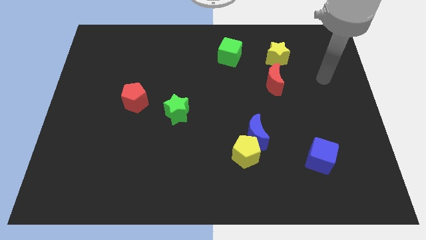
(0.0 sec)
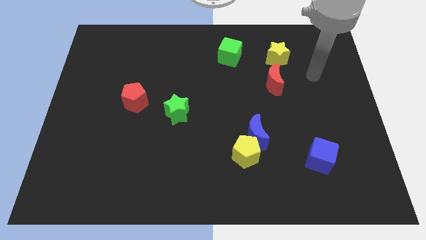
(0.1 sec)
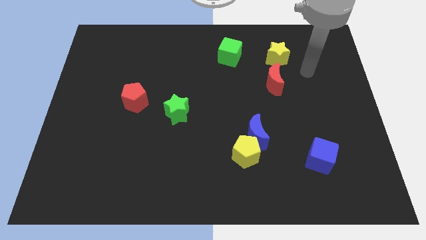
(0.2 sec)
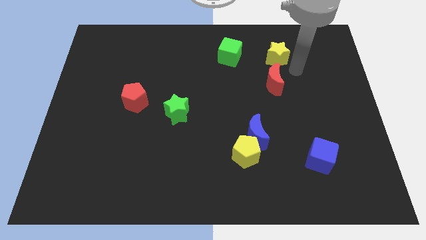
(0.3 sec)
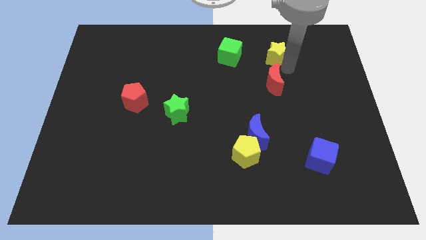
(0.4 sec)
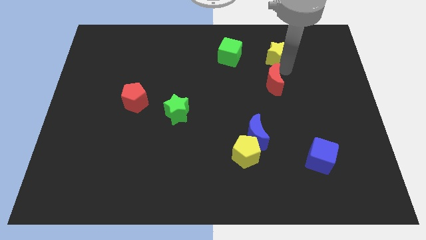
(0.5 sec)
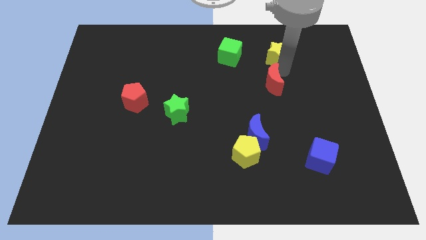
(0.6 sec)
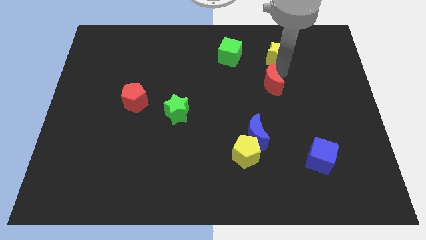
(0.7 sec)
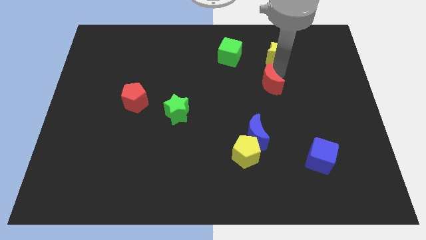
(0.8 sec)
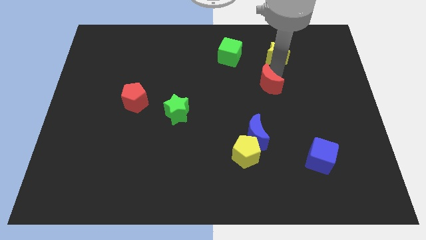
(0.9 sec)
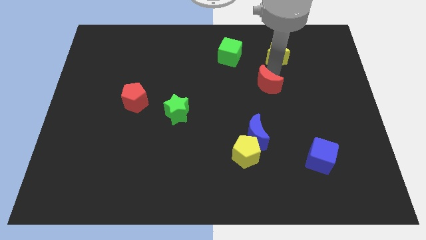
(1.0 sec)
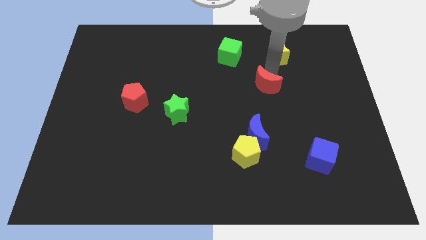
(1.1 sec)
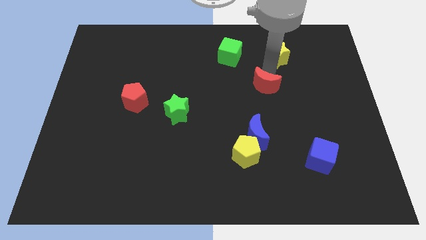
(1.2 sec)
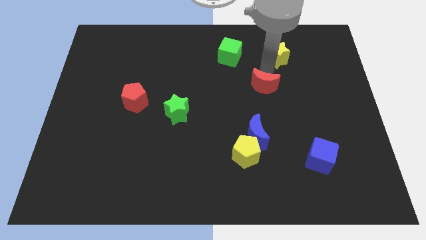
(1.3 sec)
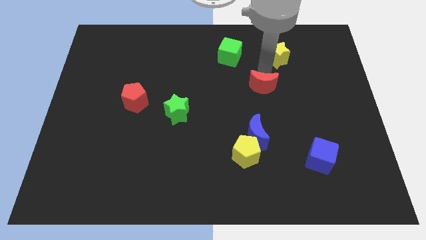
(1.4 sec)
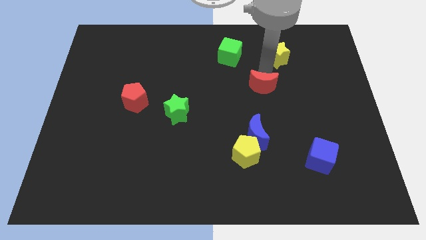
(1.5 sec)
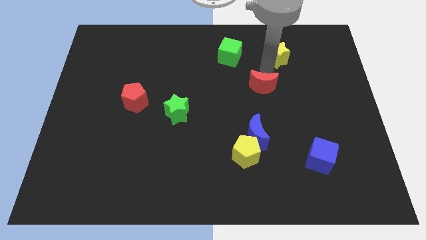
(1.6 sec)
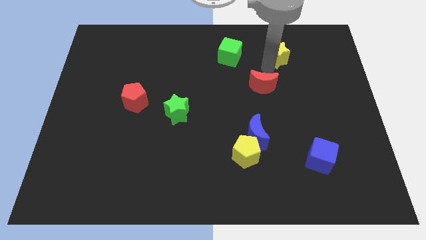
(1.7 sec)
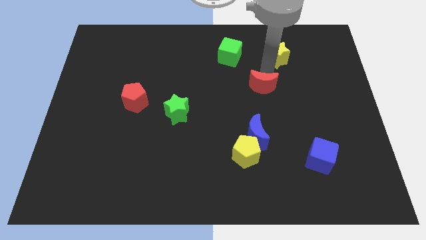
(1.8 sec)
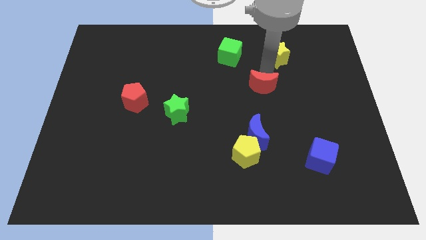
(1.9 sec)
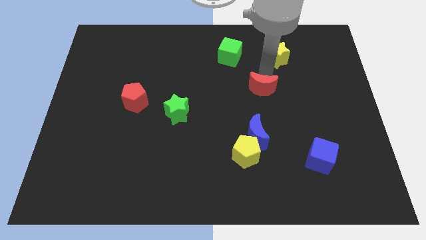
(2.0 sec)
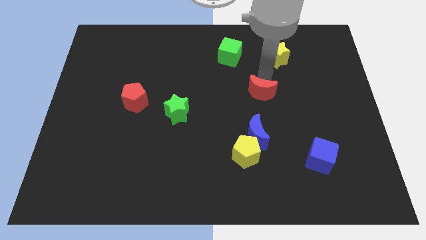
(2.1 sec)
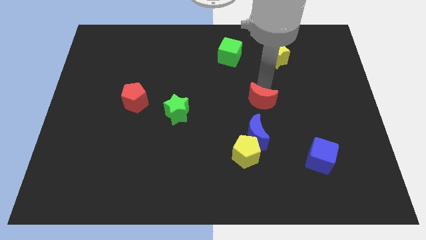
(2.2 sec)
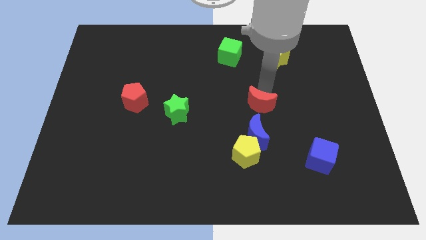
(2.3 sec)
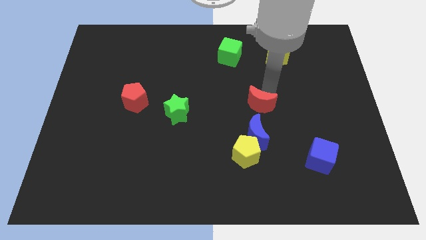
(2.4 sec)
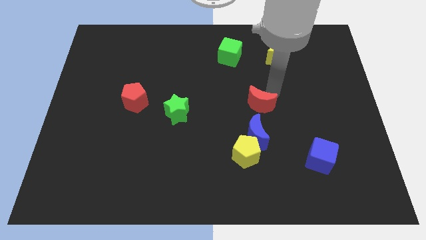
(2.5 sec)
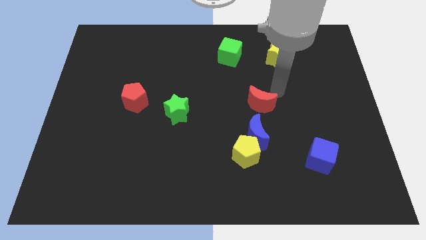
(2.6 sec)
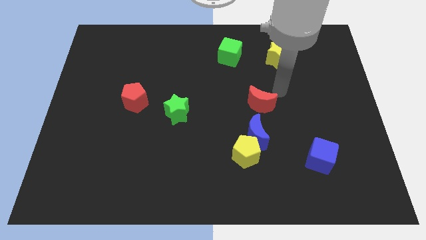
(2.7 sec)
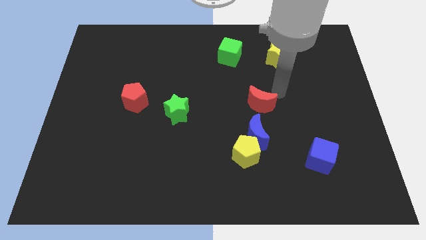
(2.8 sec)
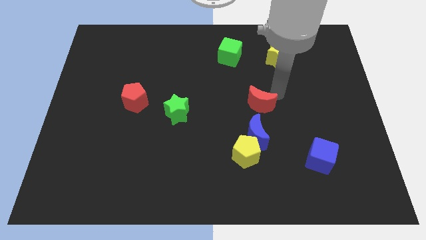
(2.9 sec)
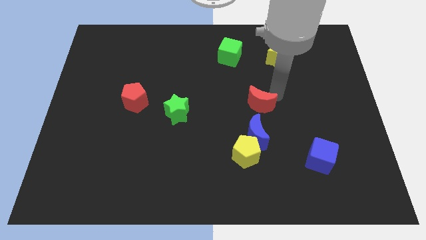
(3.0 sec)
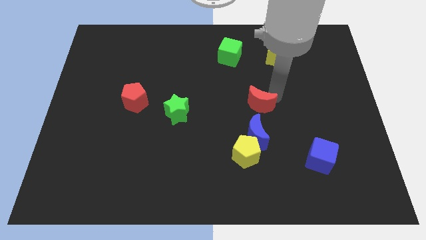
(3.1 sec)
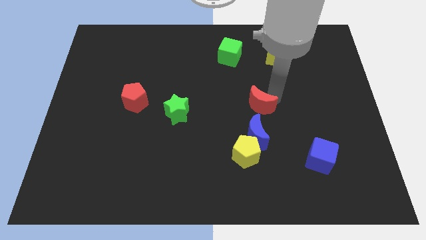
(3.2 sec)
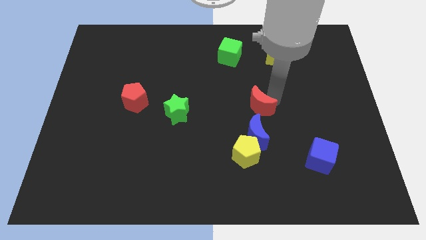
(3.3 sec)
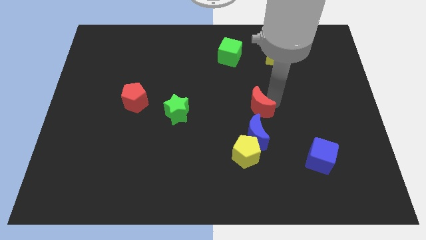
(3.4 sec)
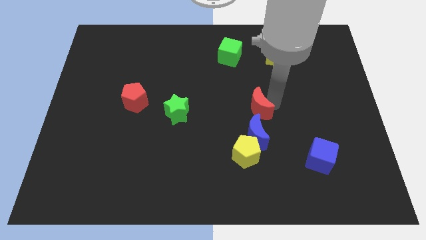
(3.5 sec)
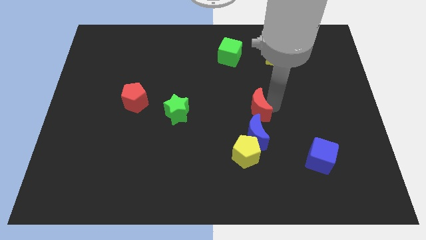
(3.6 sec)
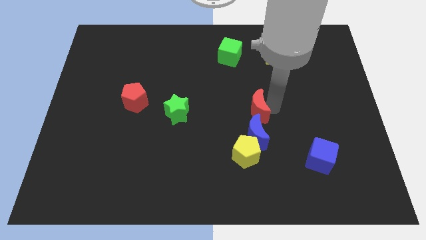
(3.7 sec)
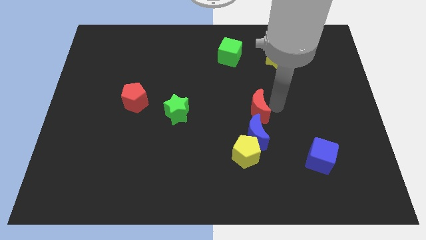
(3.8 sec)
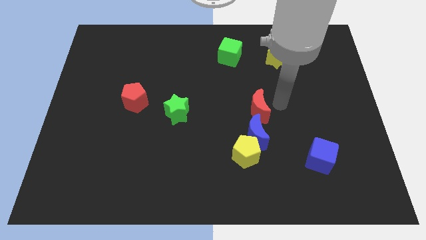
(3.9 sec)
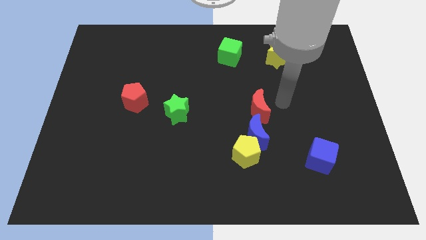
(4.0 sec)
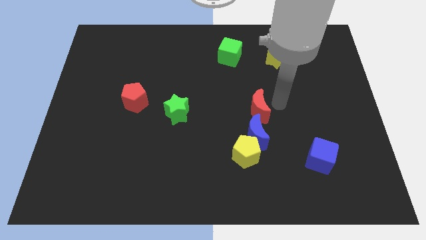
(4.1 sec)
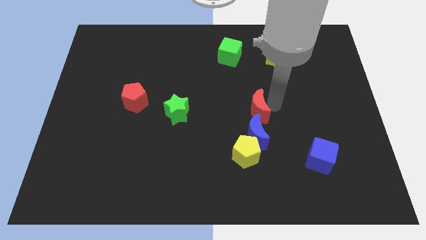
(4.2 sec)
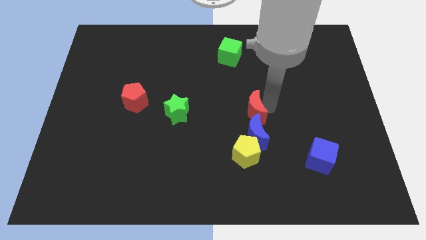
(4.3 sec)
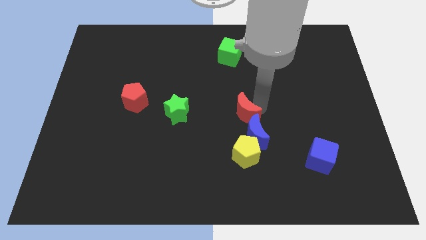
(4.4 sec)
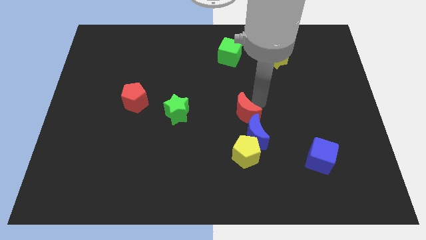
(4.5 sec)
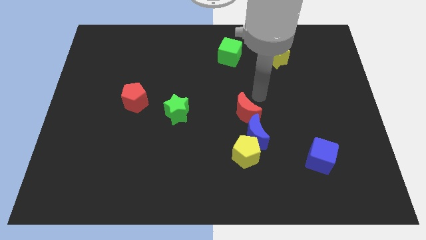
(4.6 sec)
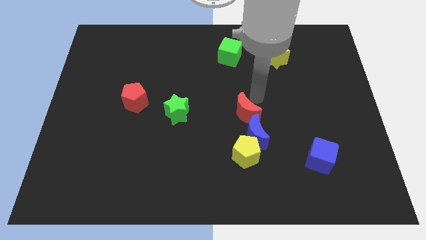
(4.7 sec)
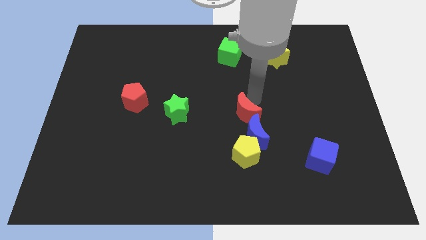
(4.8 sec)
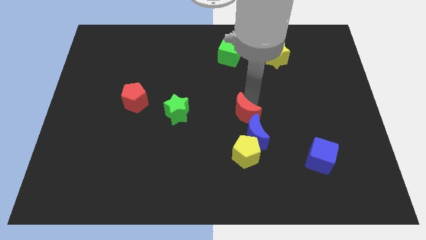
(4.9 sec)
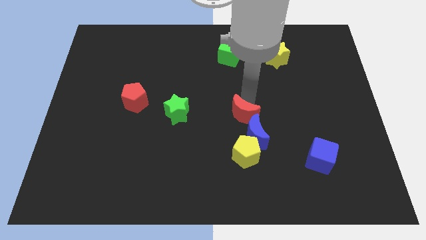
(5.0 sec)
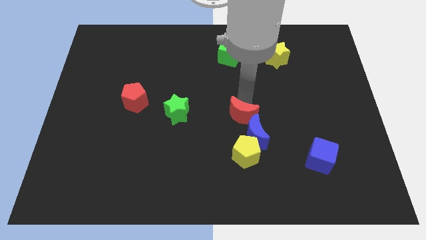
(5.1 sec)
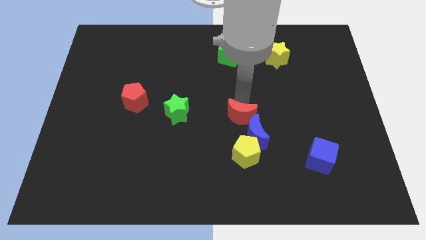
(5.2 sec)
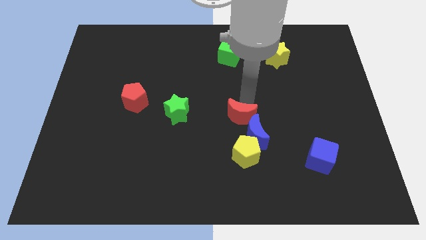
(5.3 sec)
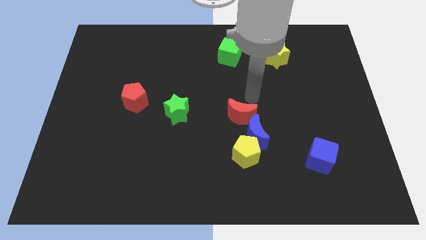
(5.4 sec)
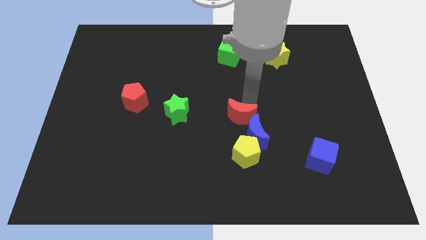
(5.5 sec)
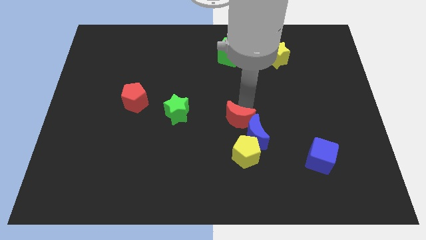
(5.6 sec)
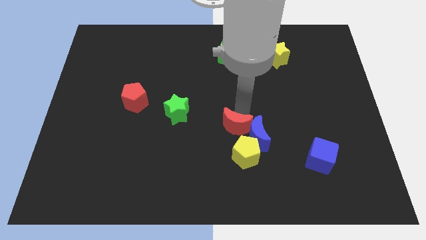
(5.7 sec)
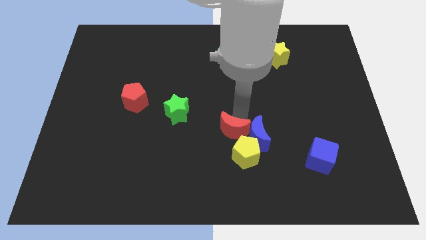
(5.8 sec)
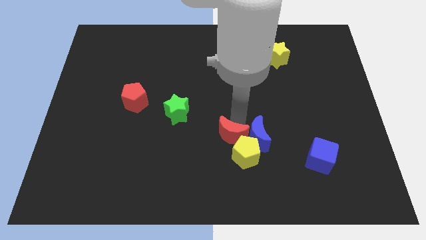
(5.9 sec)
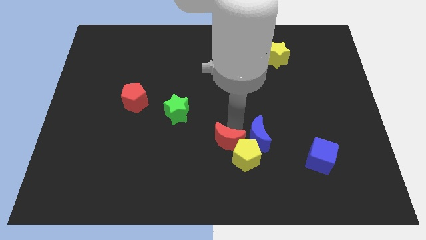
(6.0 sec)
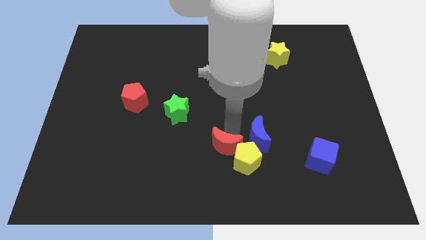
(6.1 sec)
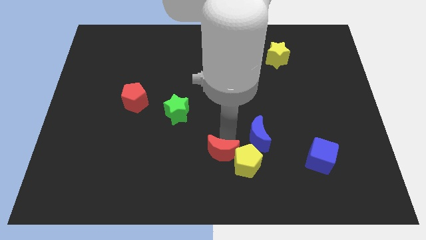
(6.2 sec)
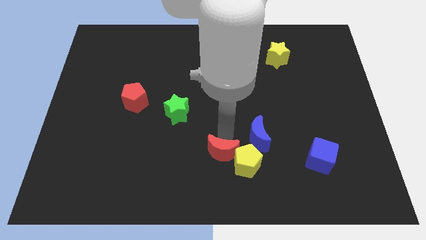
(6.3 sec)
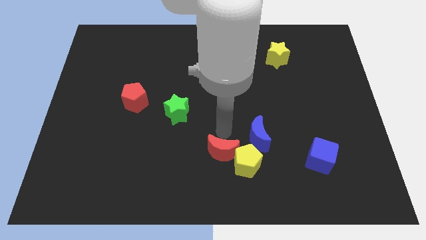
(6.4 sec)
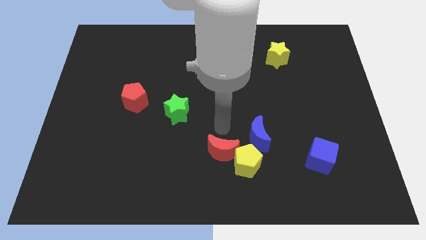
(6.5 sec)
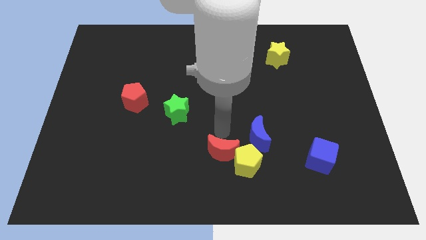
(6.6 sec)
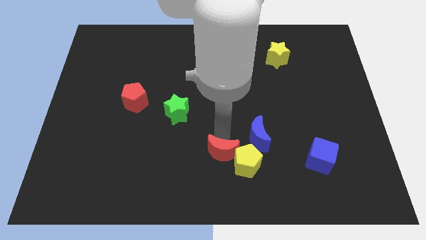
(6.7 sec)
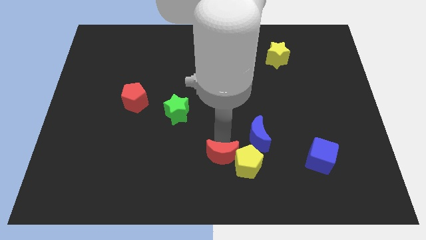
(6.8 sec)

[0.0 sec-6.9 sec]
put the red moon to the bottom side

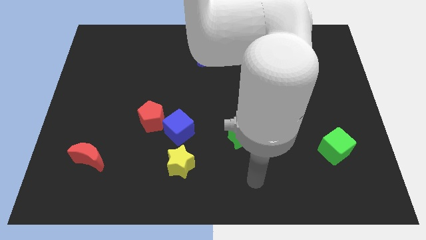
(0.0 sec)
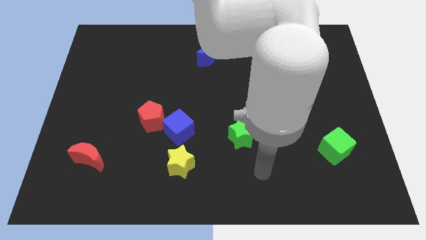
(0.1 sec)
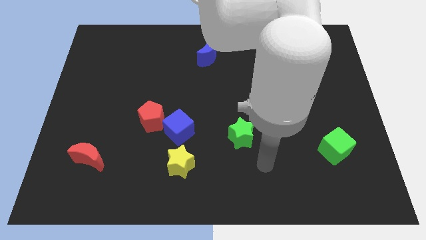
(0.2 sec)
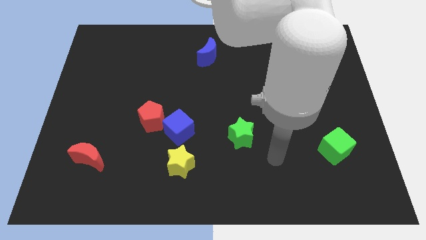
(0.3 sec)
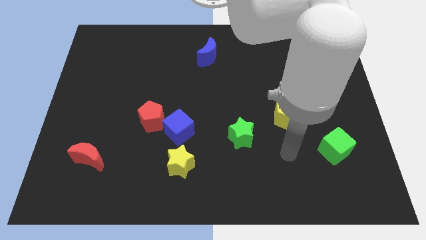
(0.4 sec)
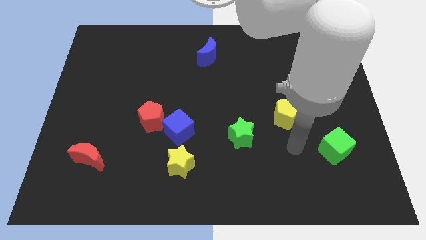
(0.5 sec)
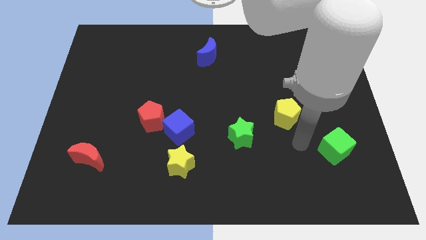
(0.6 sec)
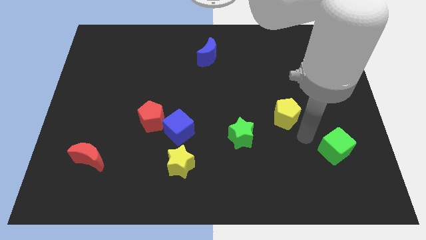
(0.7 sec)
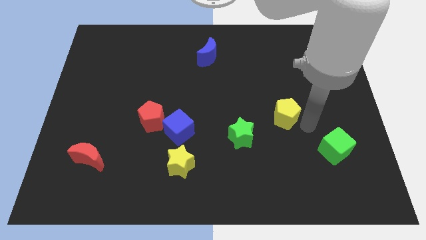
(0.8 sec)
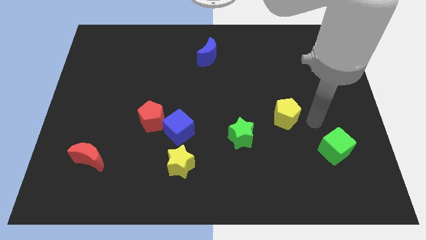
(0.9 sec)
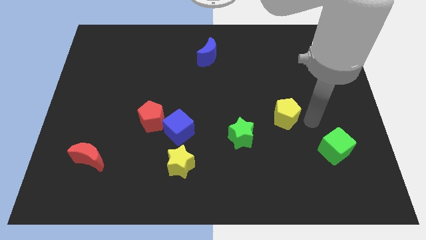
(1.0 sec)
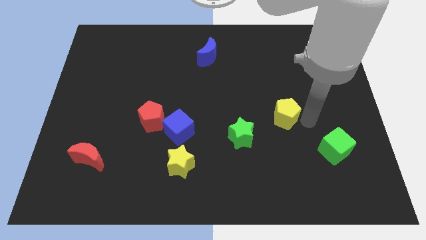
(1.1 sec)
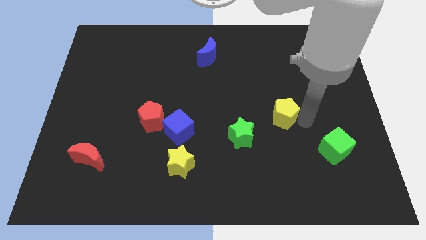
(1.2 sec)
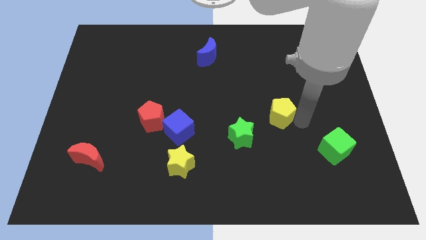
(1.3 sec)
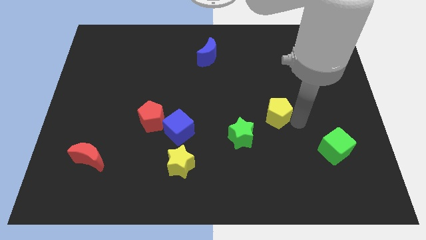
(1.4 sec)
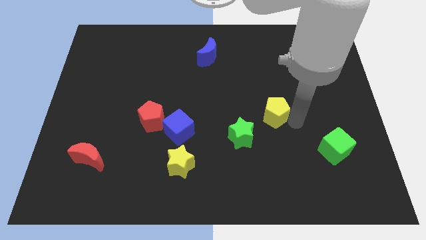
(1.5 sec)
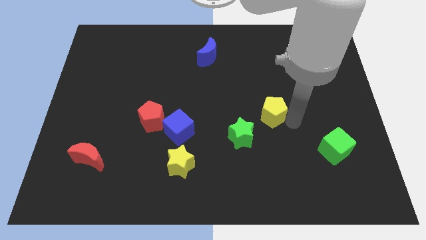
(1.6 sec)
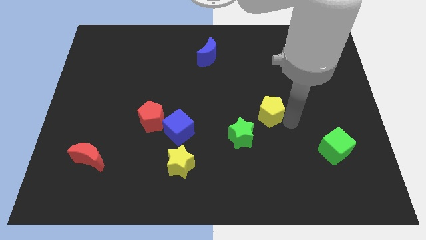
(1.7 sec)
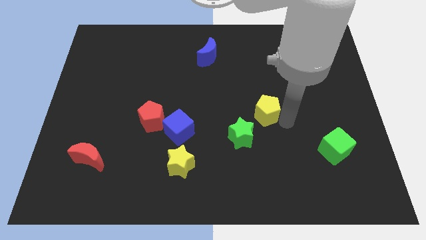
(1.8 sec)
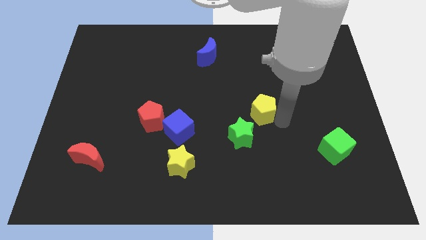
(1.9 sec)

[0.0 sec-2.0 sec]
put the yellow pentagon to the middle
